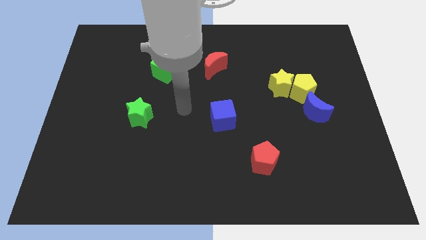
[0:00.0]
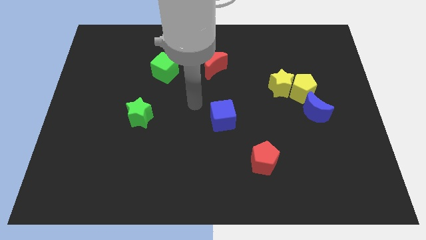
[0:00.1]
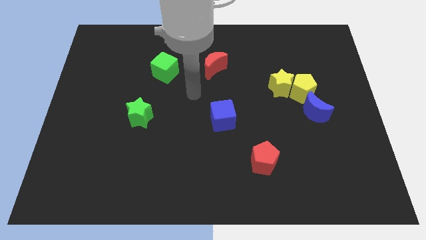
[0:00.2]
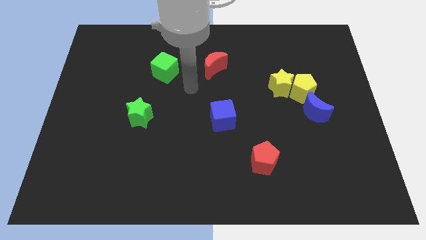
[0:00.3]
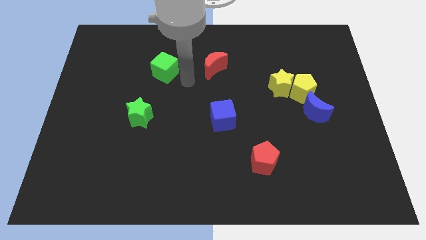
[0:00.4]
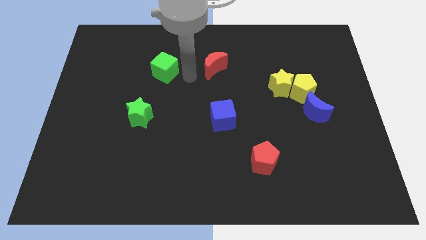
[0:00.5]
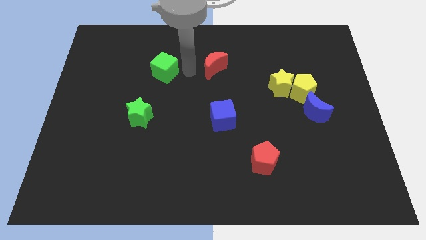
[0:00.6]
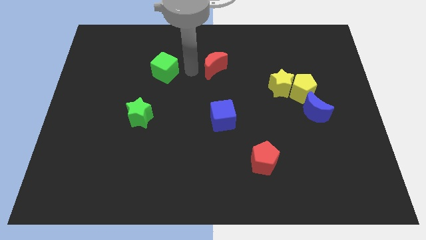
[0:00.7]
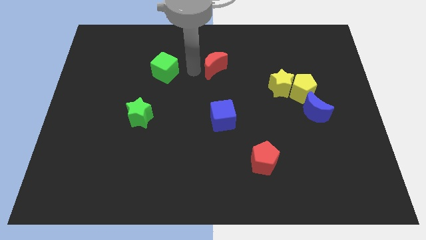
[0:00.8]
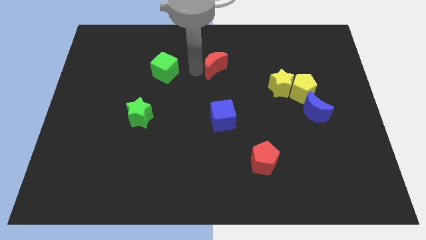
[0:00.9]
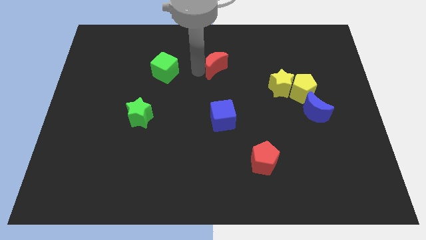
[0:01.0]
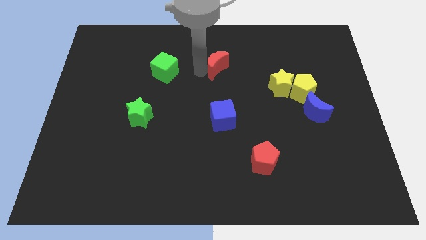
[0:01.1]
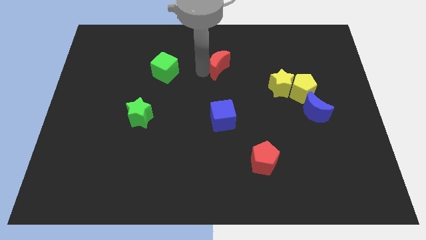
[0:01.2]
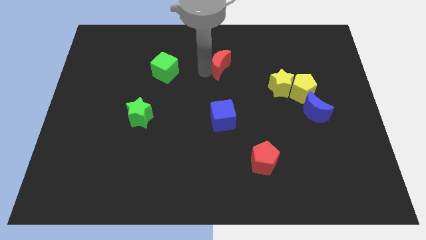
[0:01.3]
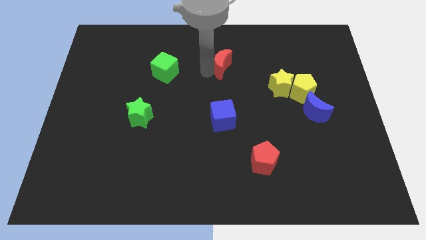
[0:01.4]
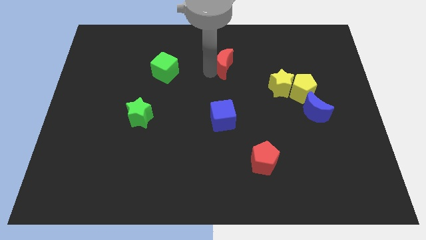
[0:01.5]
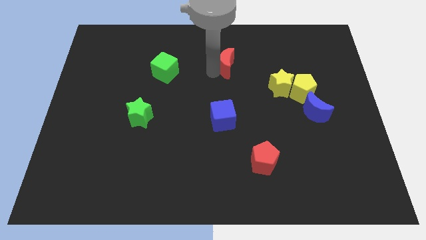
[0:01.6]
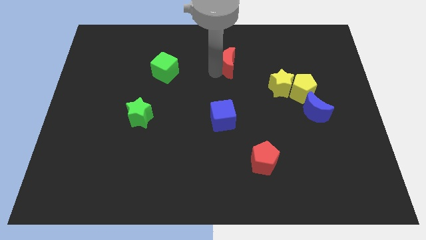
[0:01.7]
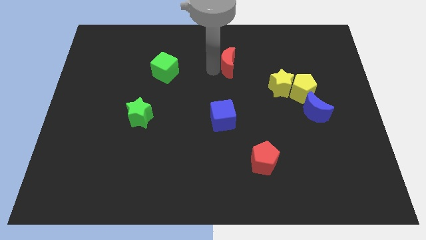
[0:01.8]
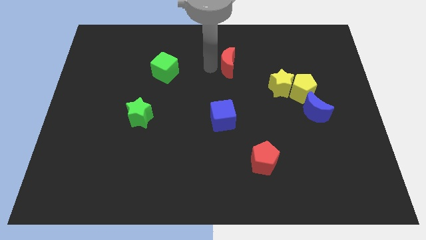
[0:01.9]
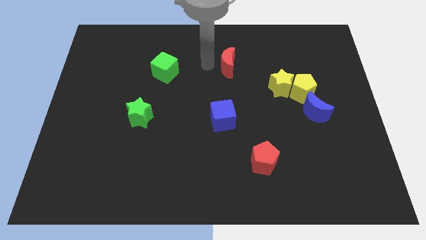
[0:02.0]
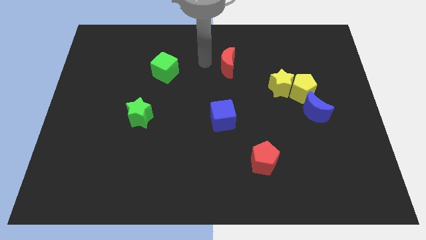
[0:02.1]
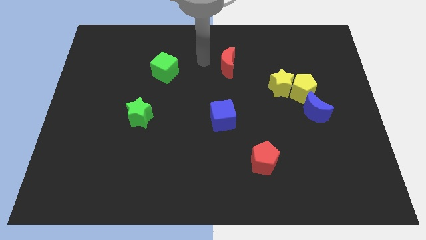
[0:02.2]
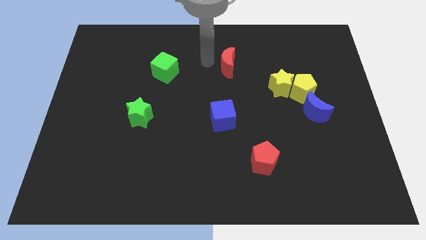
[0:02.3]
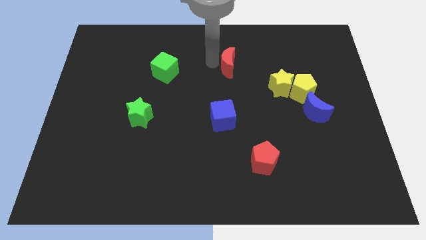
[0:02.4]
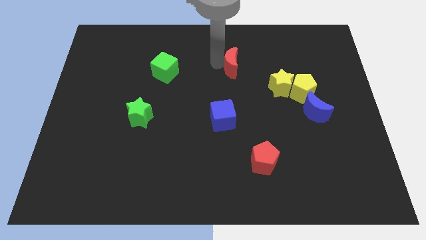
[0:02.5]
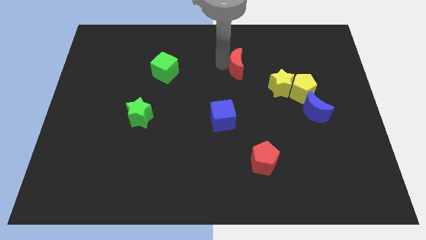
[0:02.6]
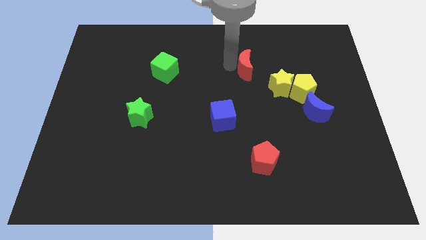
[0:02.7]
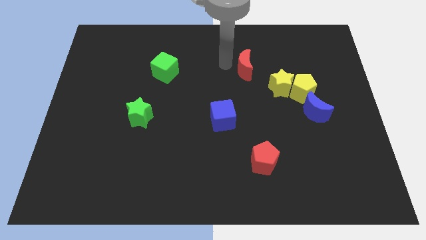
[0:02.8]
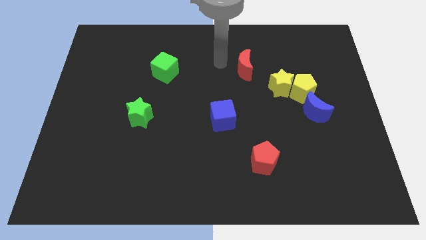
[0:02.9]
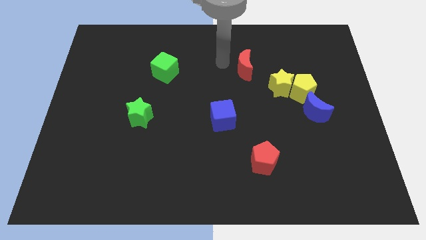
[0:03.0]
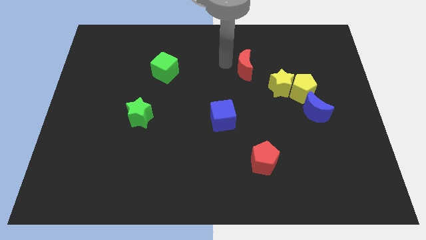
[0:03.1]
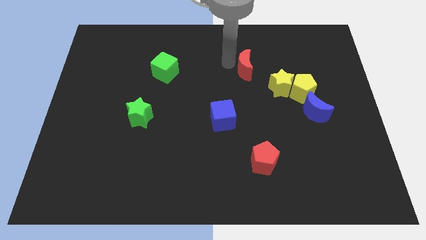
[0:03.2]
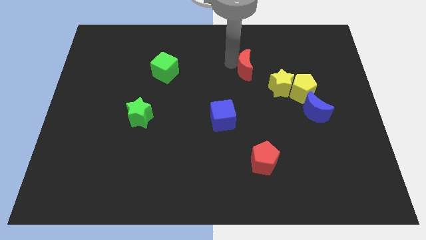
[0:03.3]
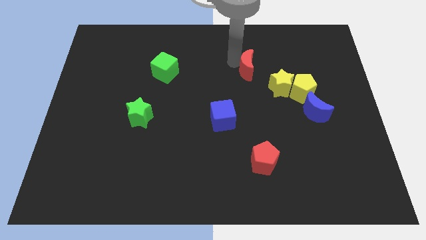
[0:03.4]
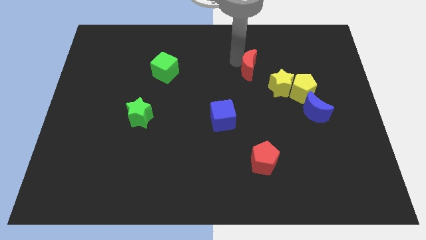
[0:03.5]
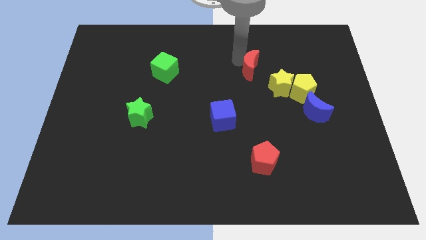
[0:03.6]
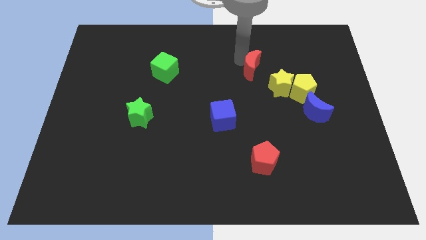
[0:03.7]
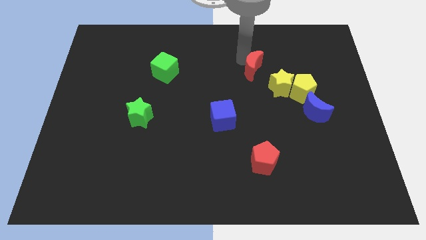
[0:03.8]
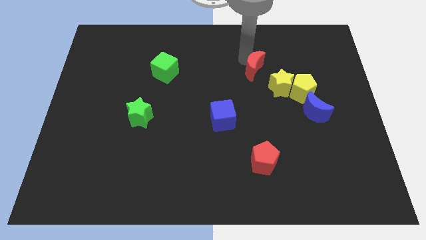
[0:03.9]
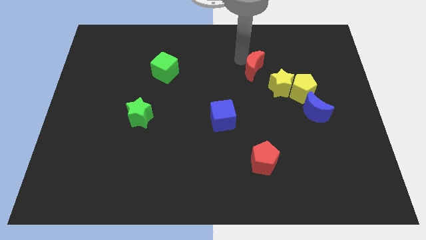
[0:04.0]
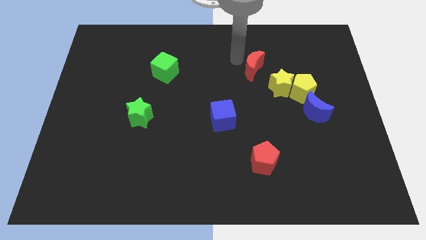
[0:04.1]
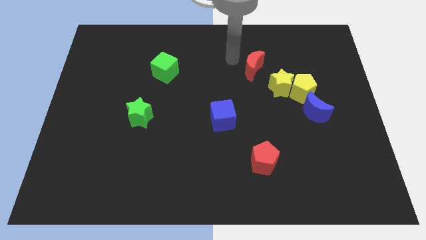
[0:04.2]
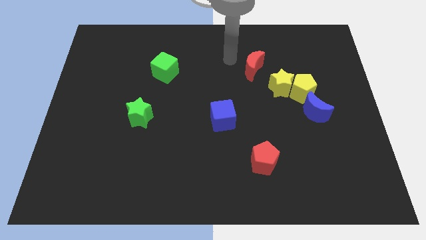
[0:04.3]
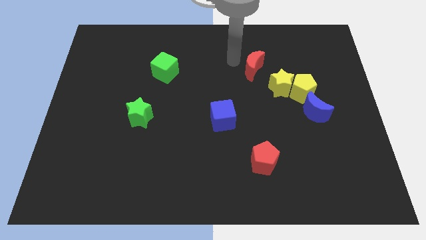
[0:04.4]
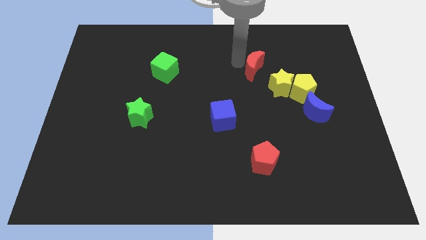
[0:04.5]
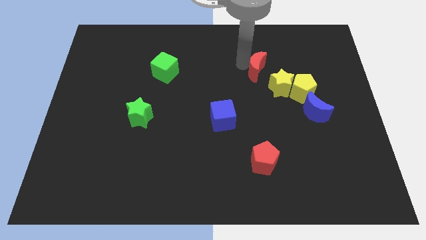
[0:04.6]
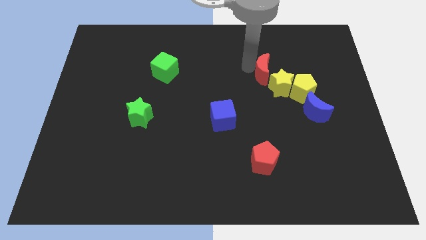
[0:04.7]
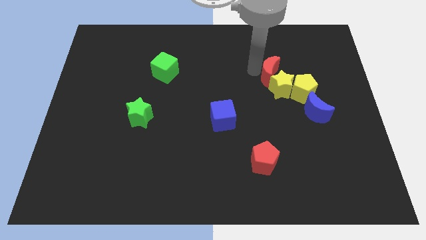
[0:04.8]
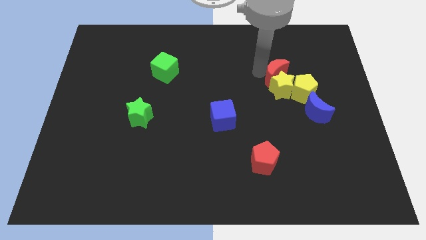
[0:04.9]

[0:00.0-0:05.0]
slide the red moon to the top right side of the yellow star

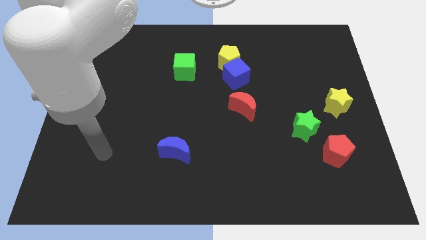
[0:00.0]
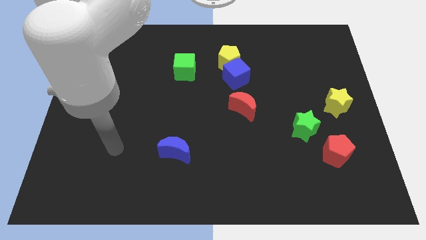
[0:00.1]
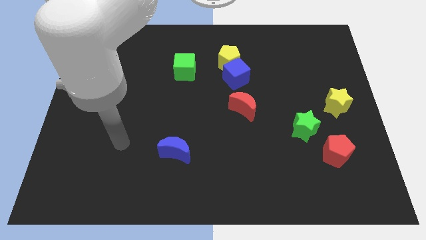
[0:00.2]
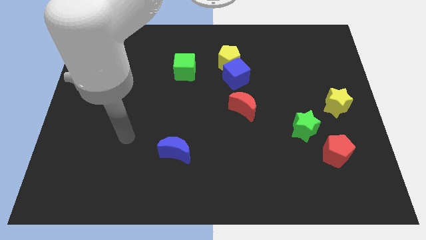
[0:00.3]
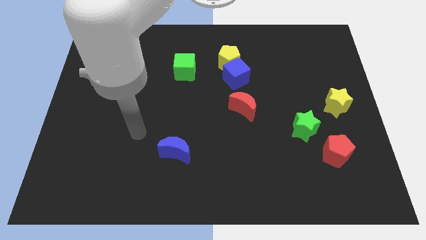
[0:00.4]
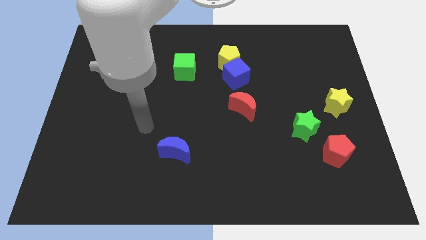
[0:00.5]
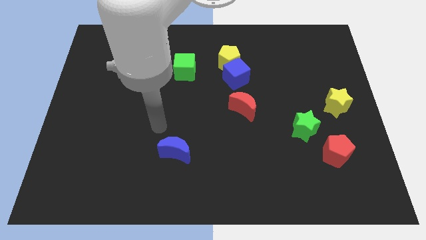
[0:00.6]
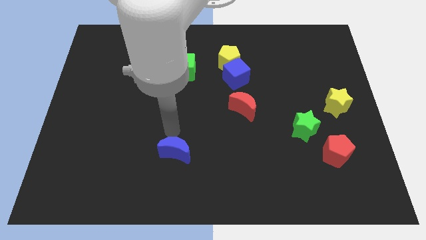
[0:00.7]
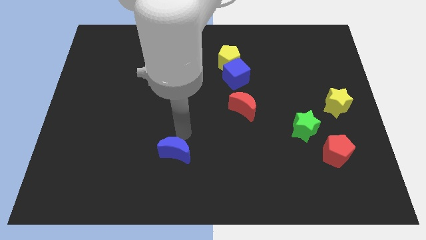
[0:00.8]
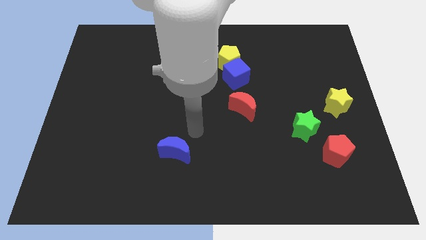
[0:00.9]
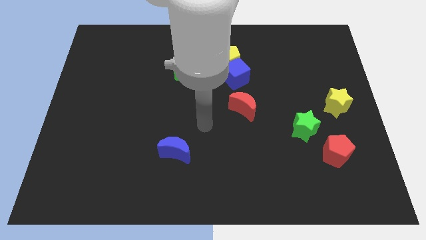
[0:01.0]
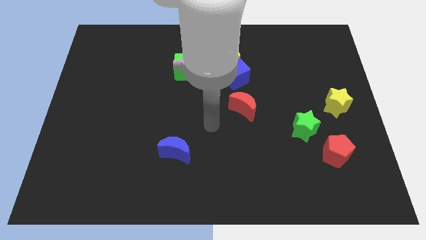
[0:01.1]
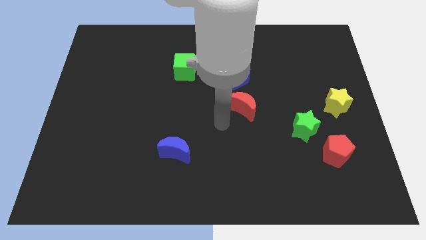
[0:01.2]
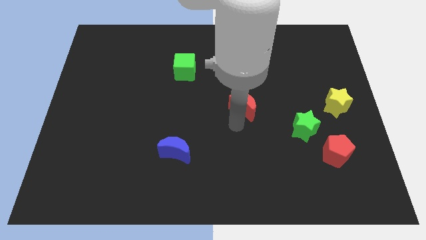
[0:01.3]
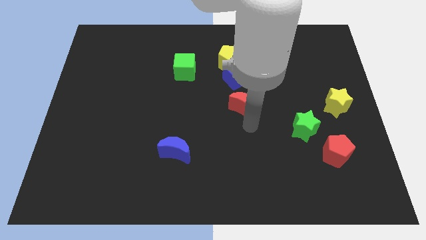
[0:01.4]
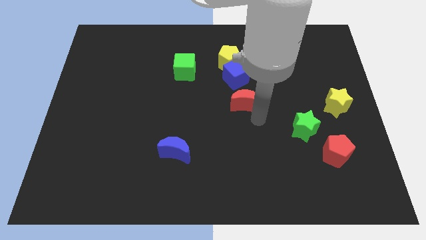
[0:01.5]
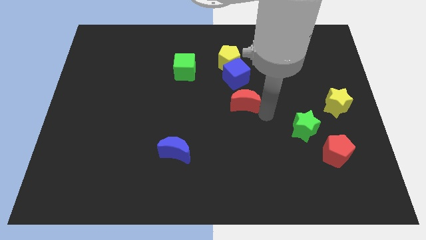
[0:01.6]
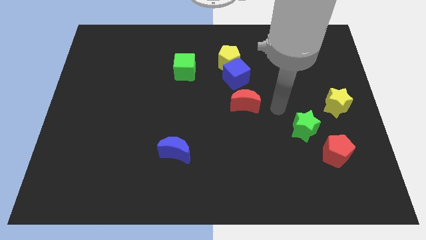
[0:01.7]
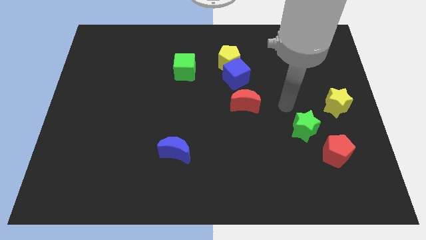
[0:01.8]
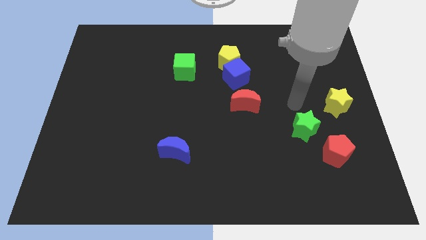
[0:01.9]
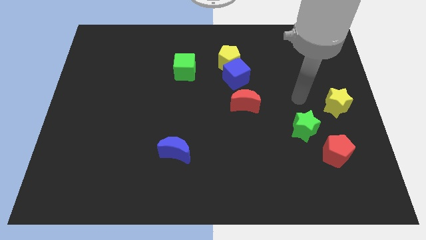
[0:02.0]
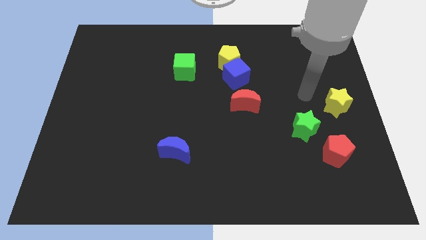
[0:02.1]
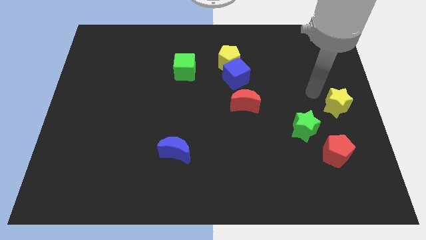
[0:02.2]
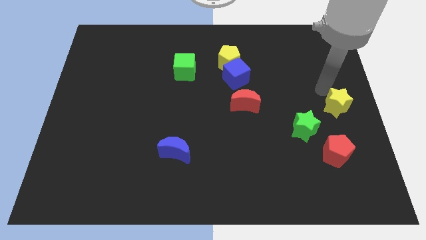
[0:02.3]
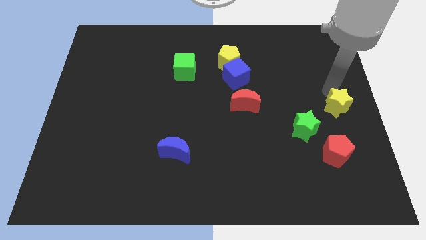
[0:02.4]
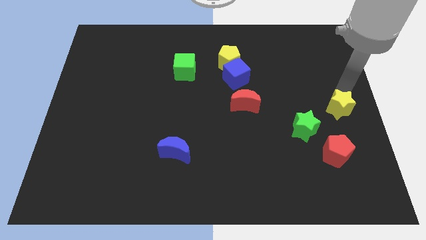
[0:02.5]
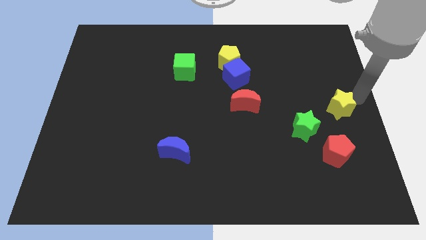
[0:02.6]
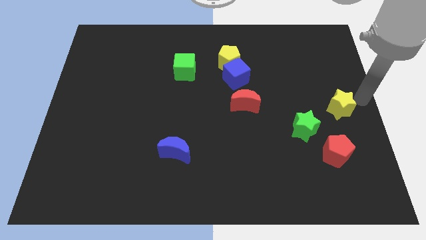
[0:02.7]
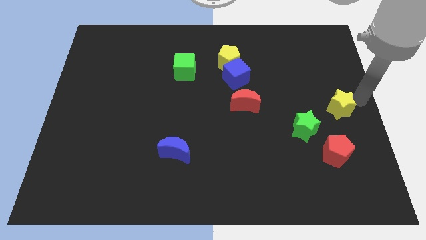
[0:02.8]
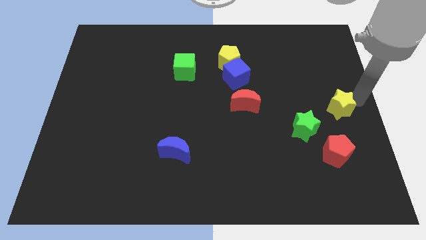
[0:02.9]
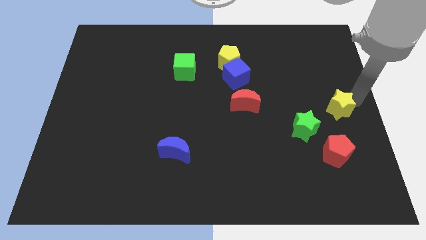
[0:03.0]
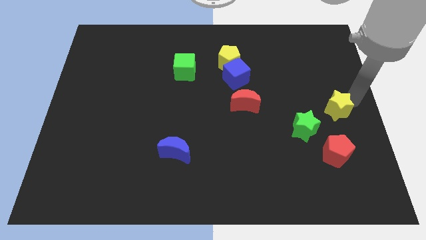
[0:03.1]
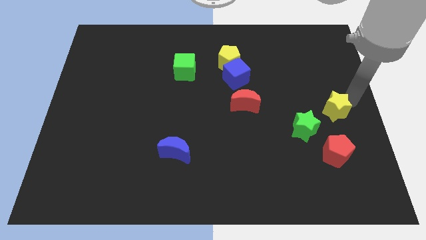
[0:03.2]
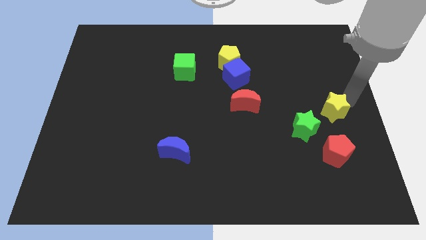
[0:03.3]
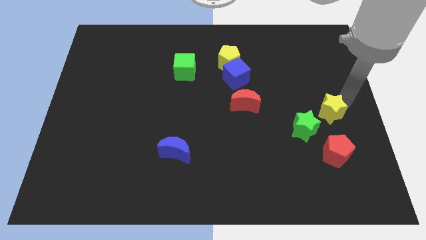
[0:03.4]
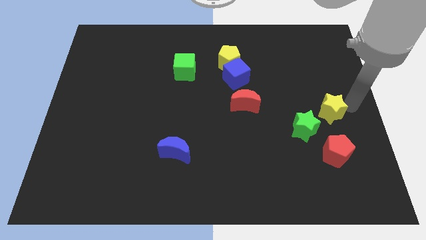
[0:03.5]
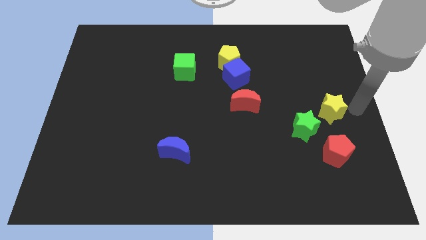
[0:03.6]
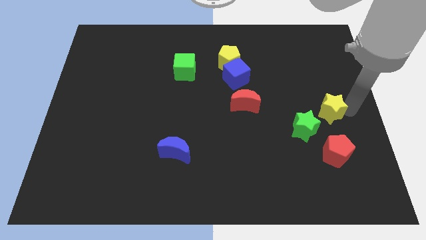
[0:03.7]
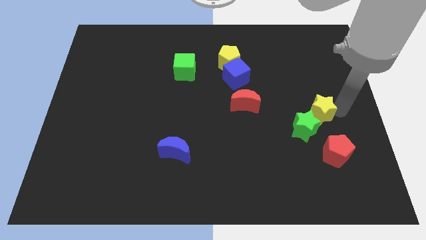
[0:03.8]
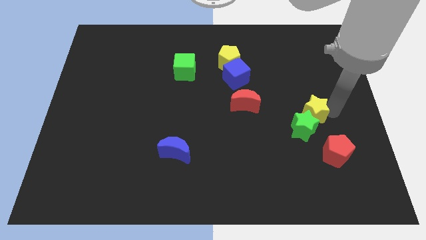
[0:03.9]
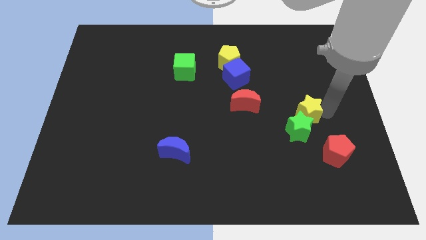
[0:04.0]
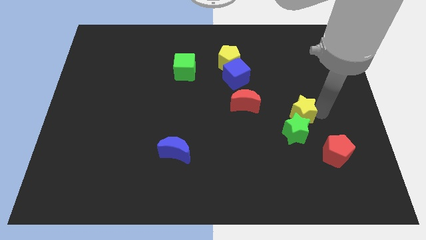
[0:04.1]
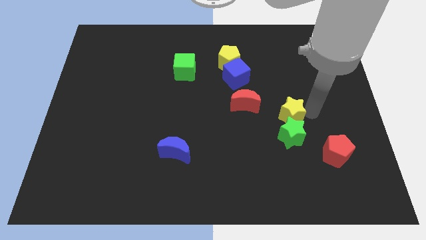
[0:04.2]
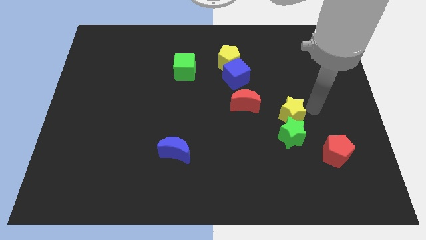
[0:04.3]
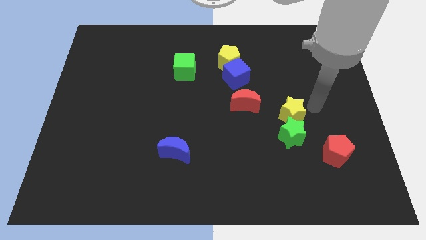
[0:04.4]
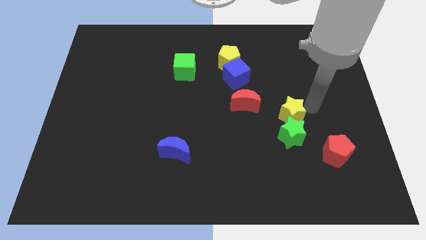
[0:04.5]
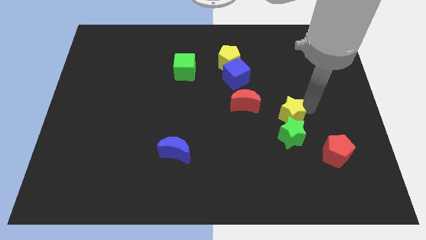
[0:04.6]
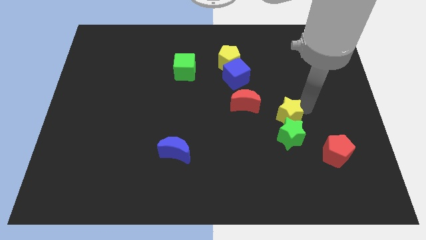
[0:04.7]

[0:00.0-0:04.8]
put the yellow star to the bottom right of the red moon
